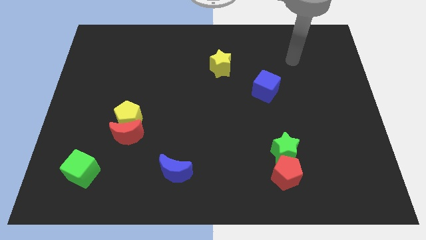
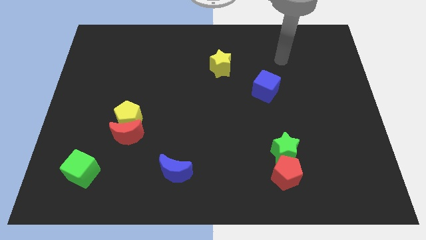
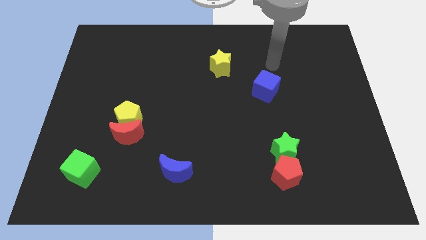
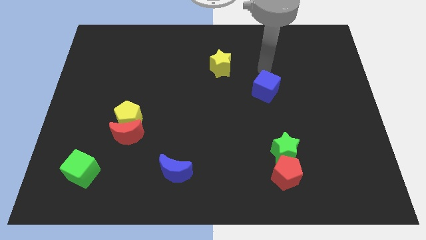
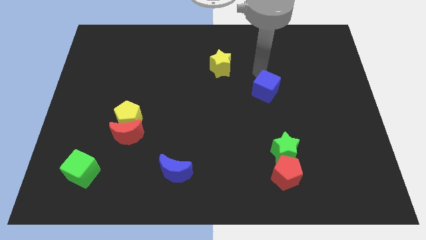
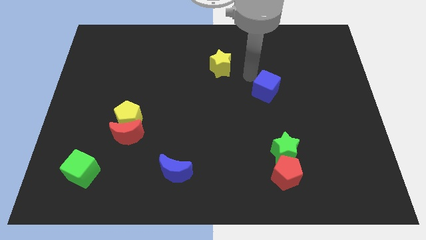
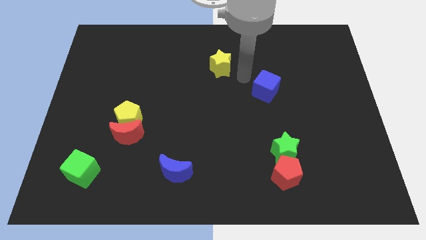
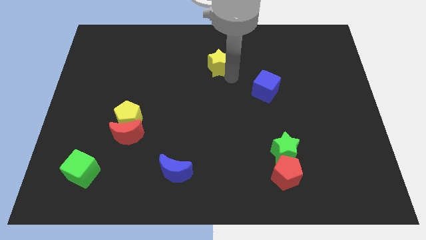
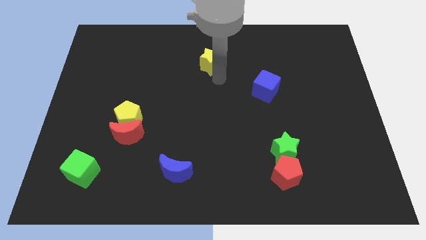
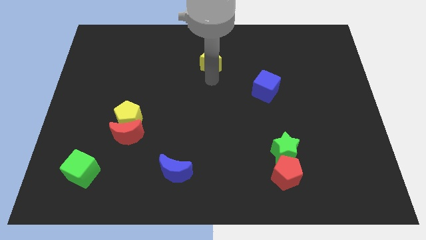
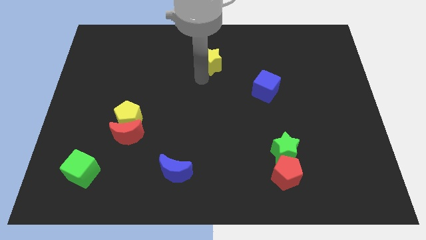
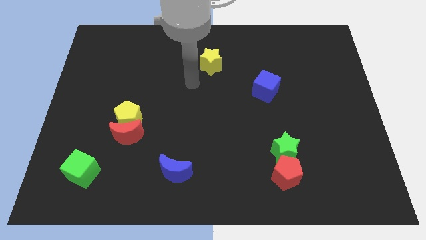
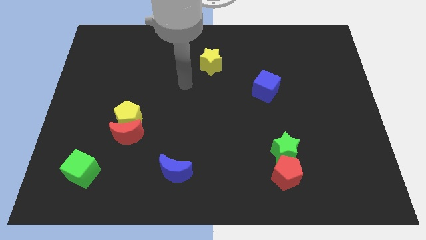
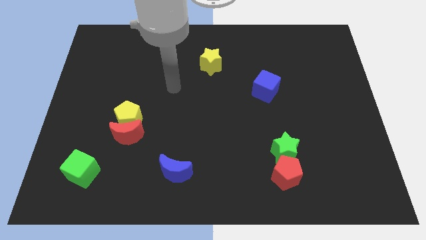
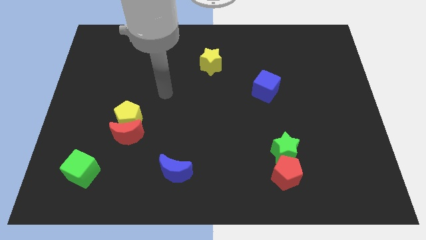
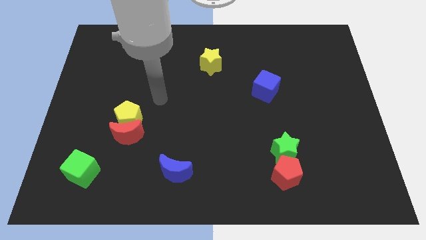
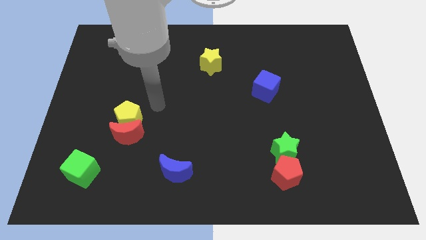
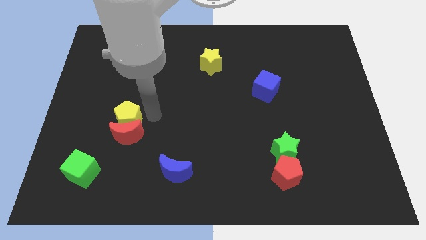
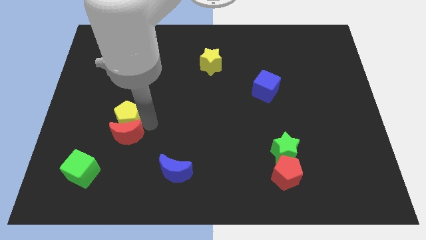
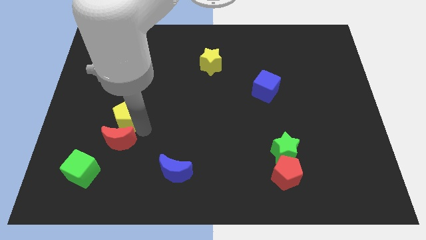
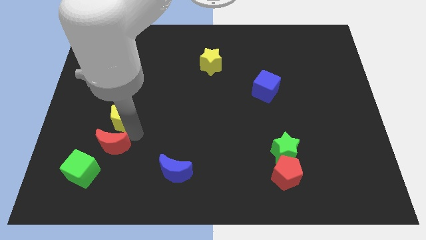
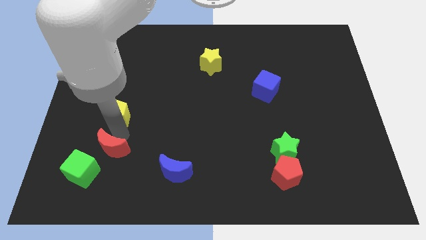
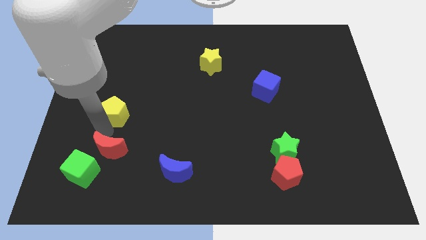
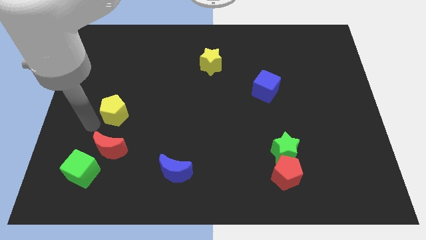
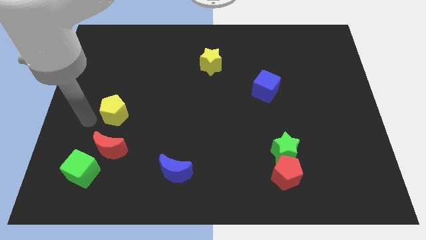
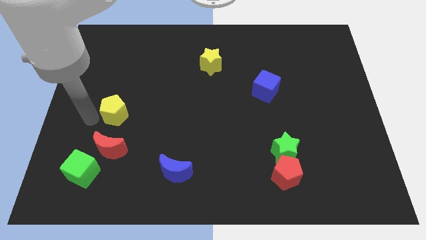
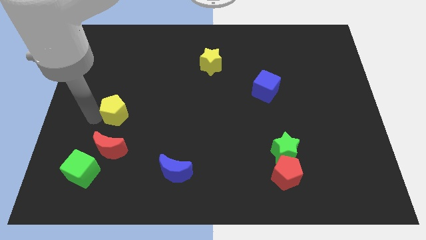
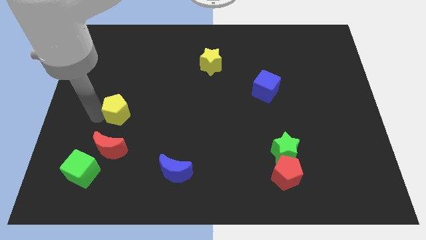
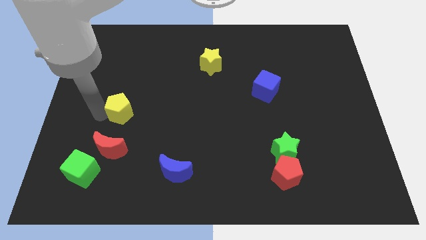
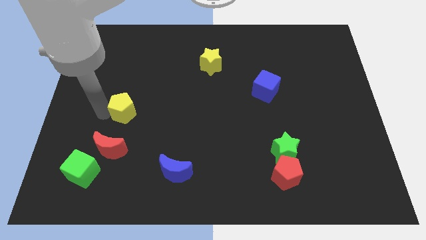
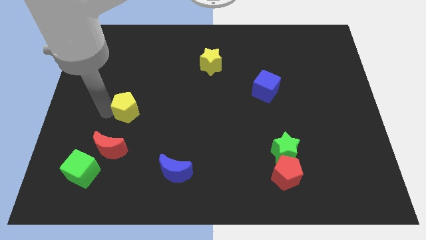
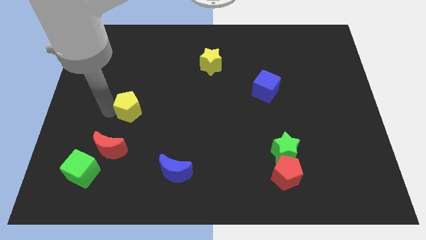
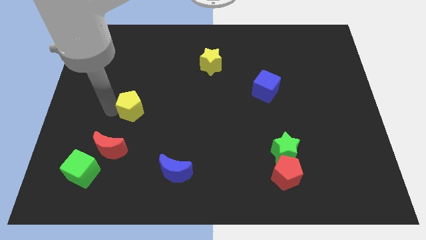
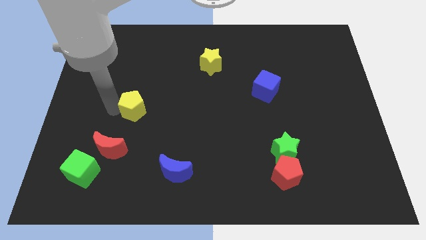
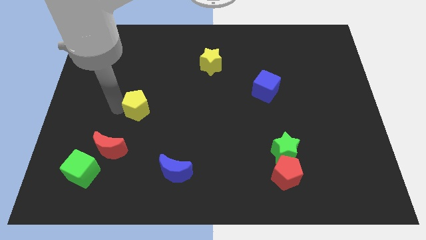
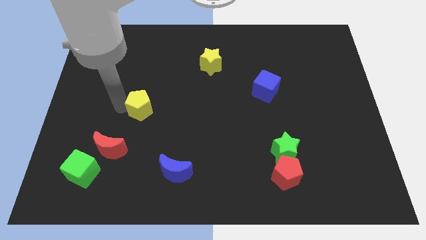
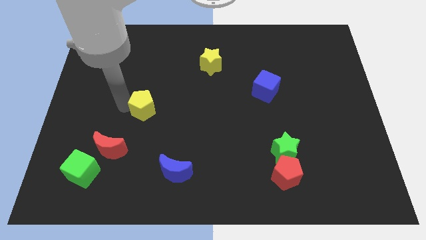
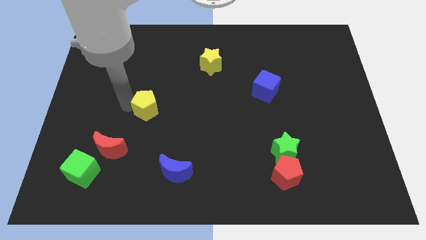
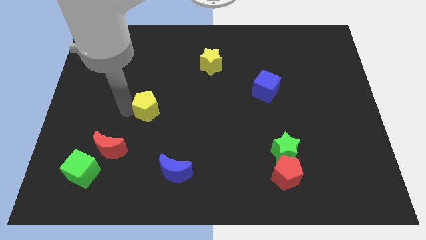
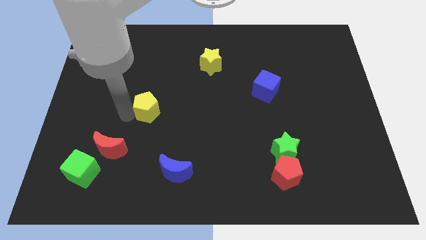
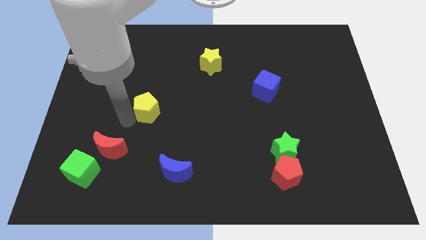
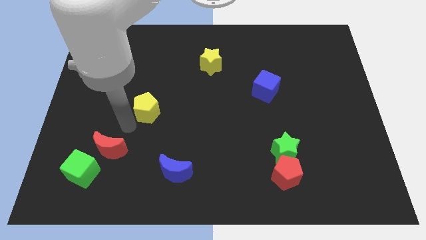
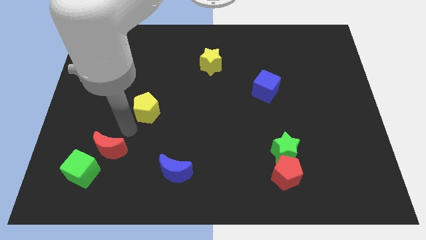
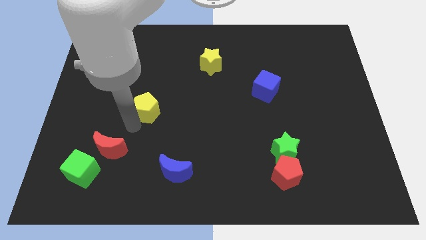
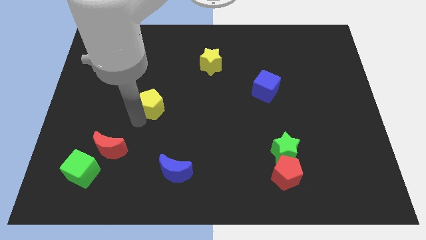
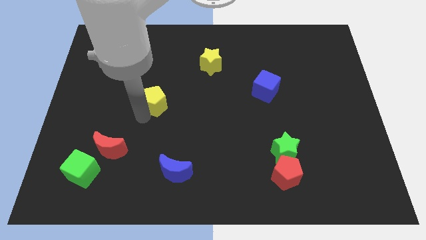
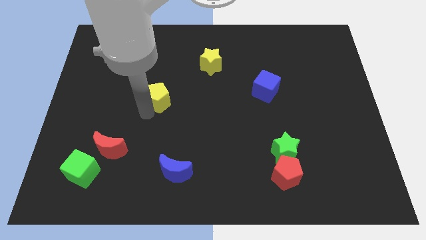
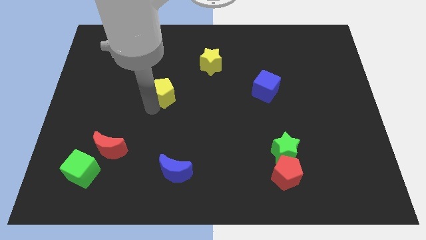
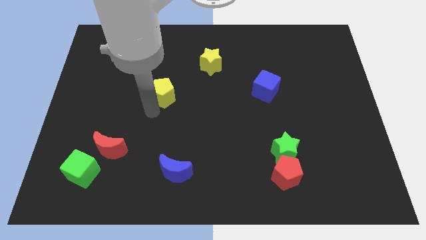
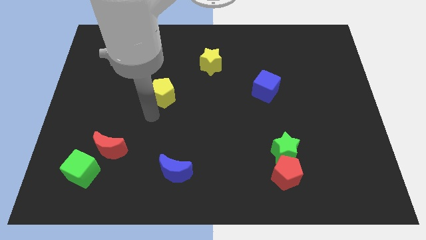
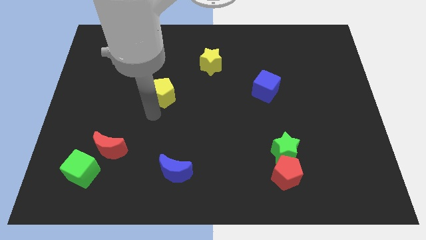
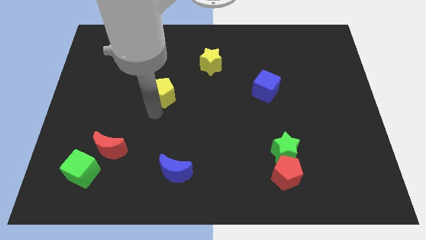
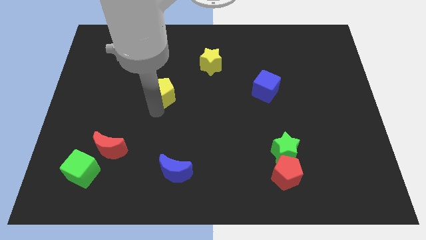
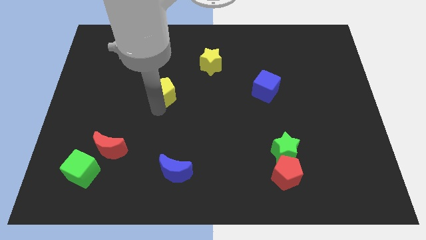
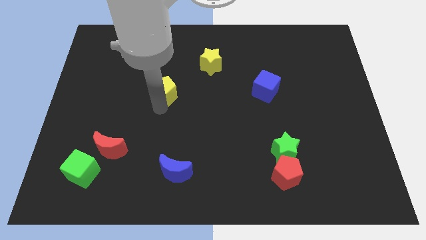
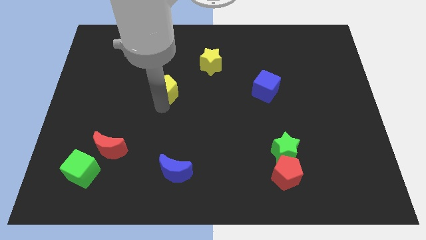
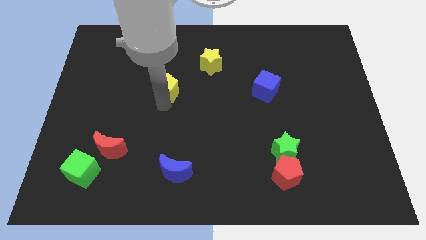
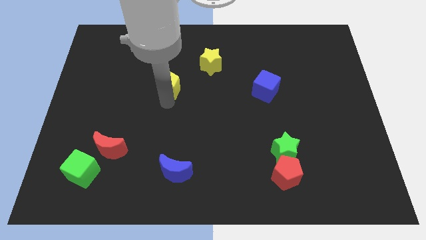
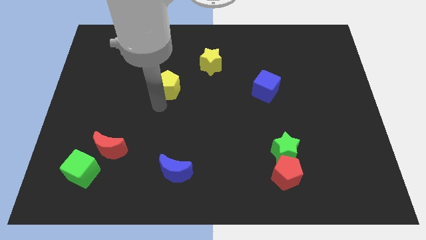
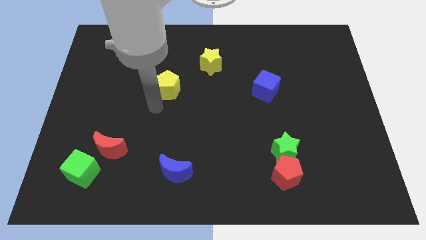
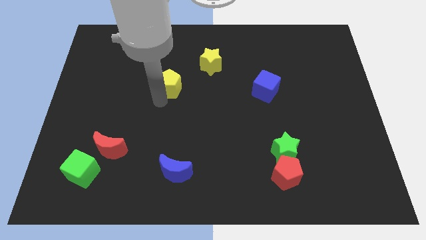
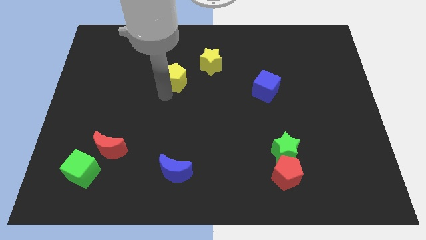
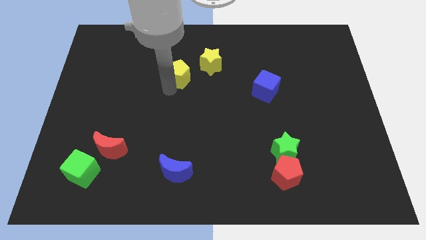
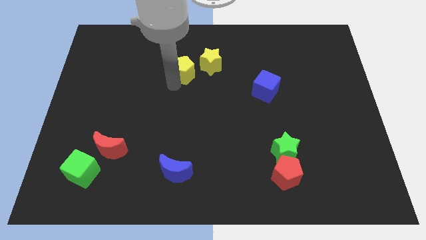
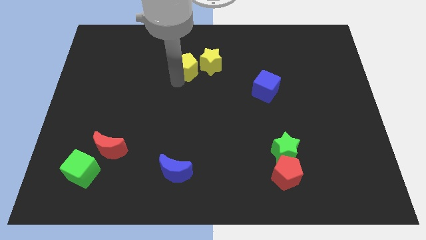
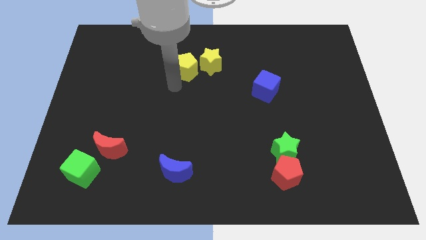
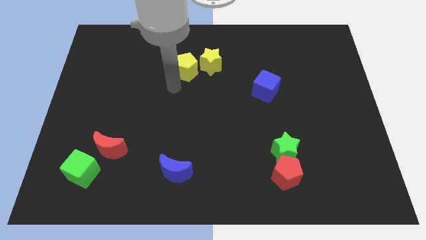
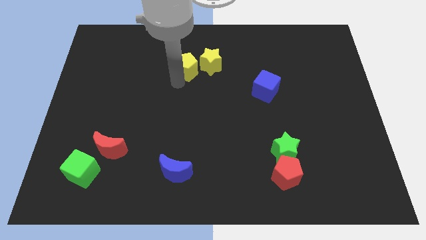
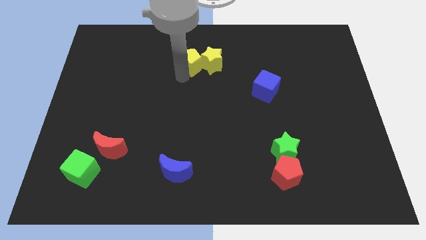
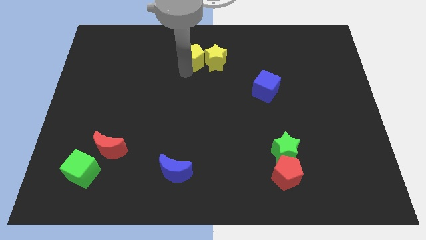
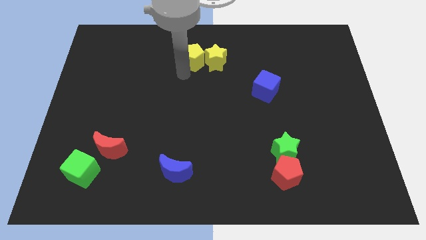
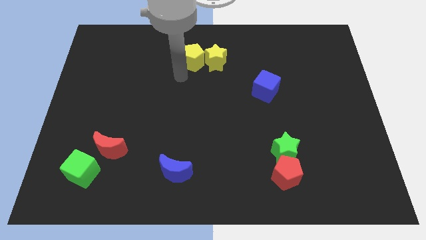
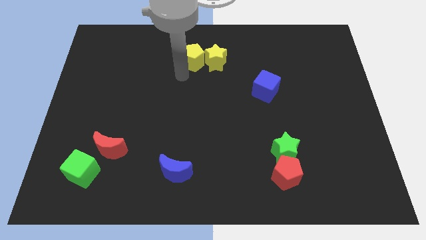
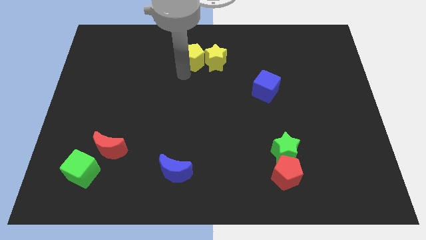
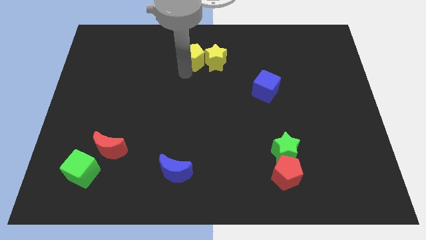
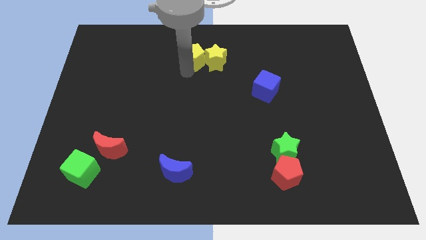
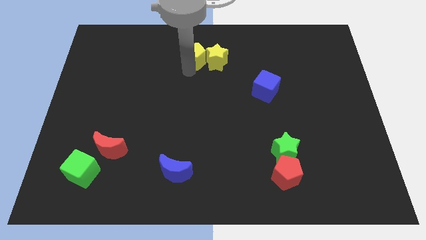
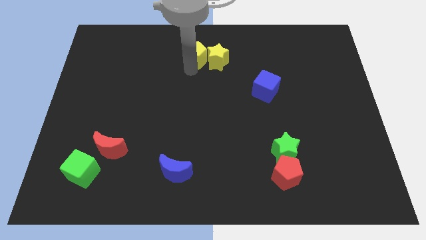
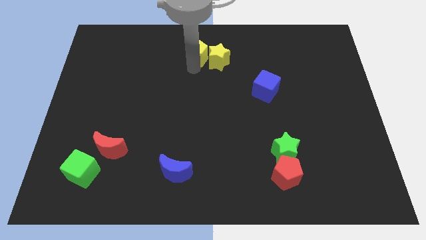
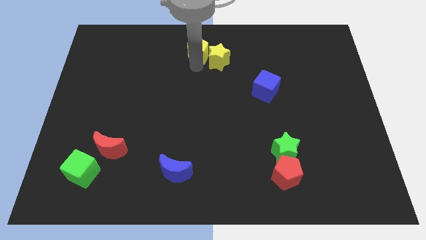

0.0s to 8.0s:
put the yellow pentagon to the top side
